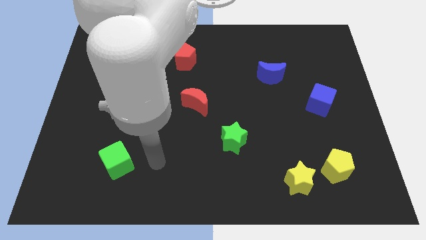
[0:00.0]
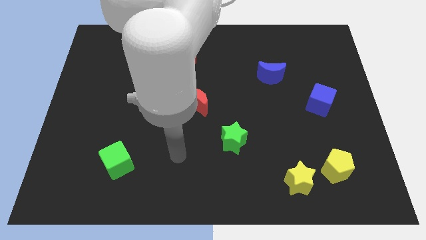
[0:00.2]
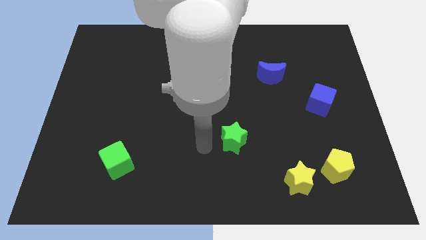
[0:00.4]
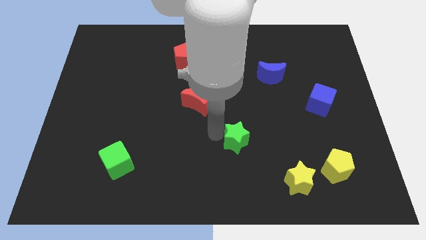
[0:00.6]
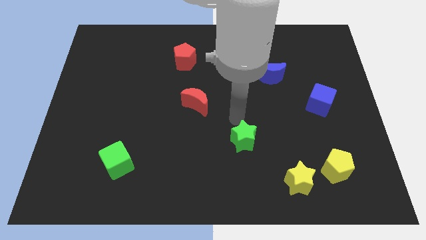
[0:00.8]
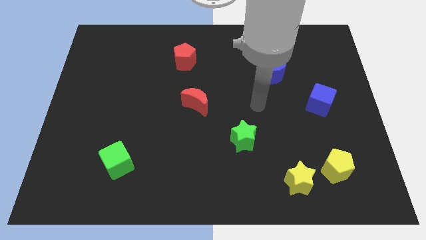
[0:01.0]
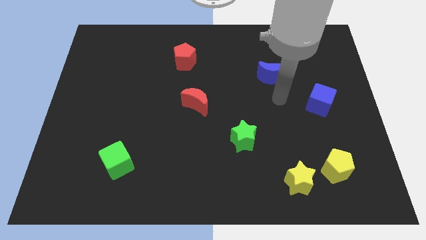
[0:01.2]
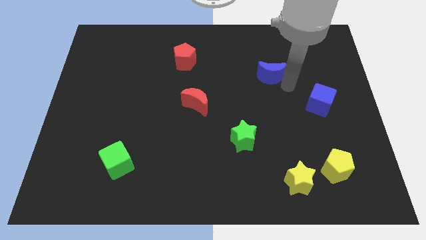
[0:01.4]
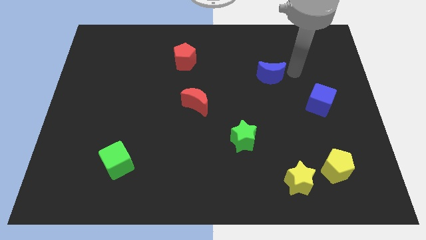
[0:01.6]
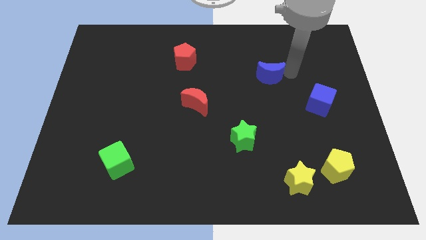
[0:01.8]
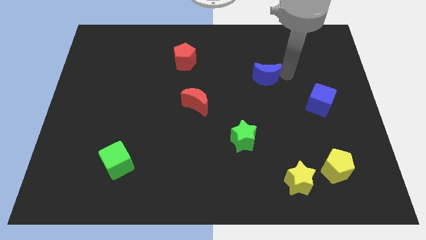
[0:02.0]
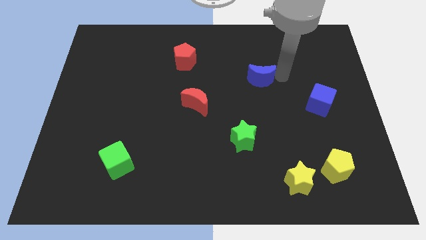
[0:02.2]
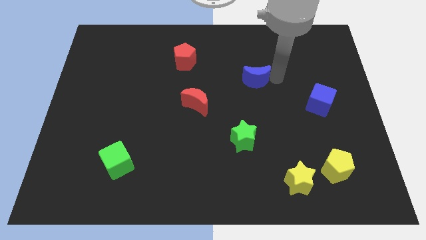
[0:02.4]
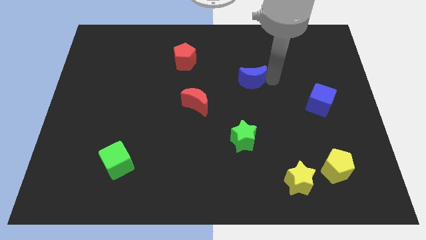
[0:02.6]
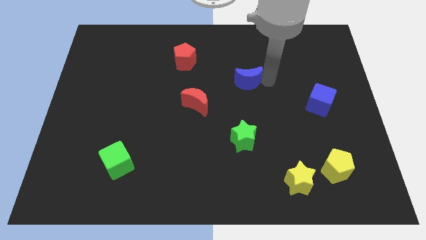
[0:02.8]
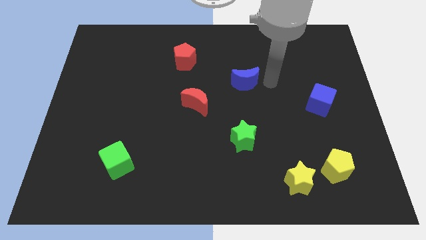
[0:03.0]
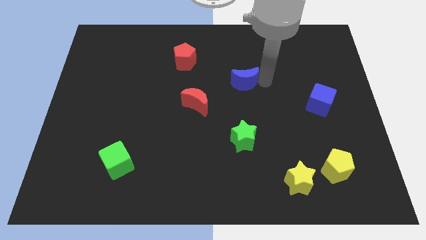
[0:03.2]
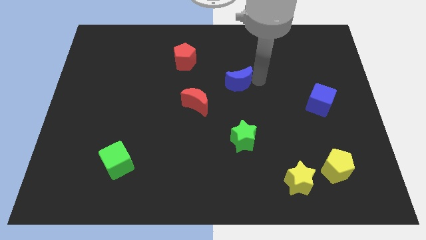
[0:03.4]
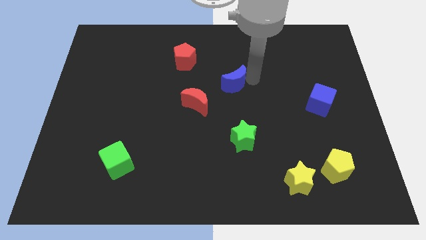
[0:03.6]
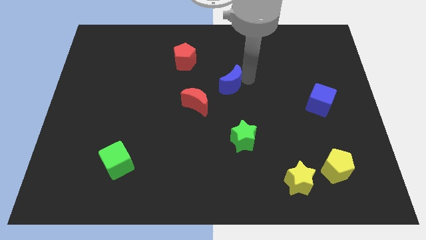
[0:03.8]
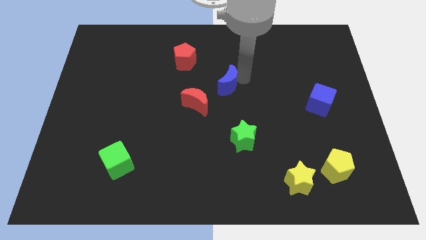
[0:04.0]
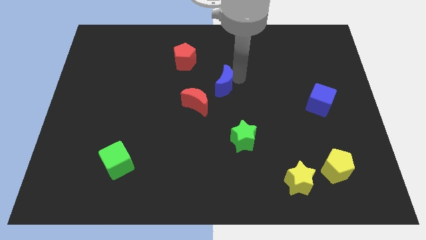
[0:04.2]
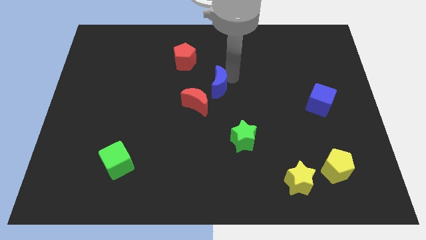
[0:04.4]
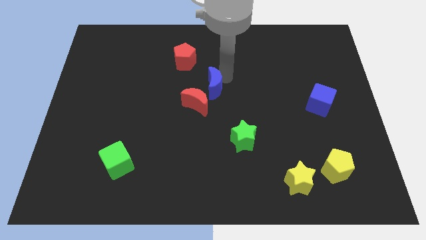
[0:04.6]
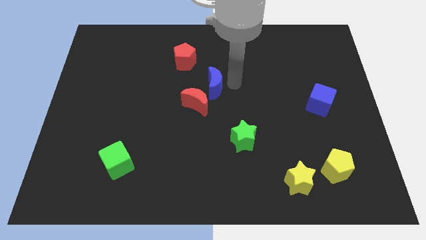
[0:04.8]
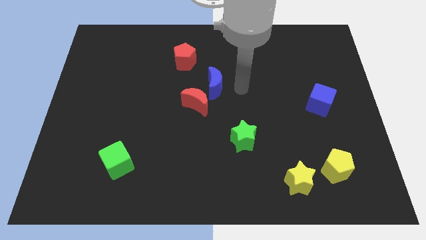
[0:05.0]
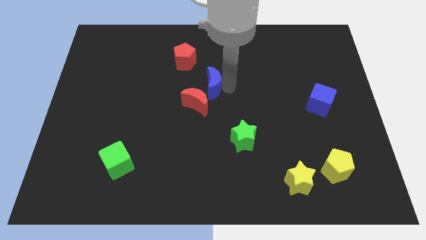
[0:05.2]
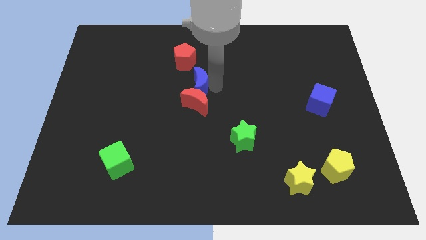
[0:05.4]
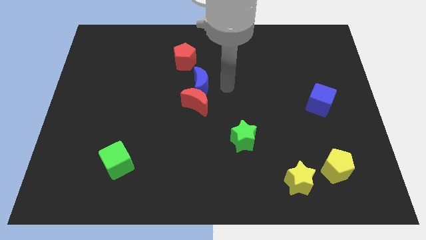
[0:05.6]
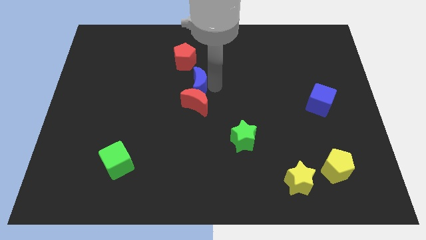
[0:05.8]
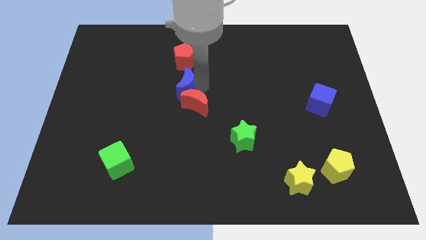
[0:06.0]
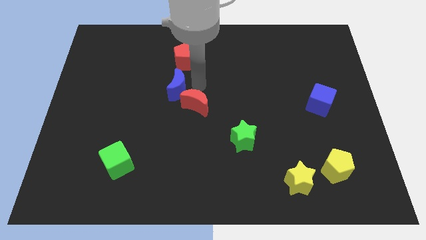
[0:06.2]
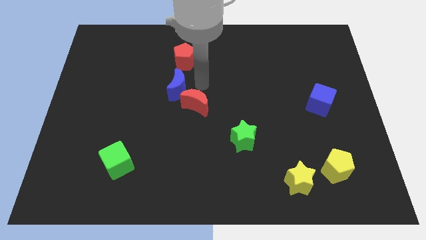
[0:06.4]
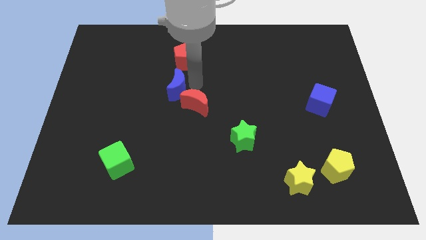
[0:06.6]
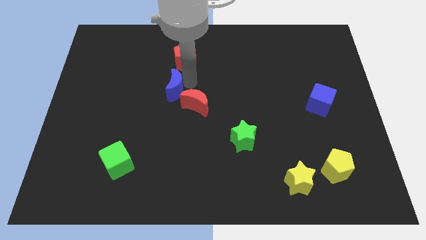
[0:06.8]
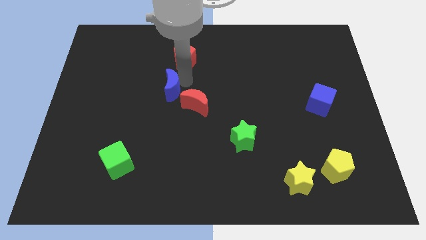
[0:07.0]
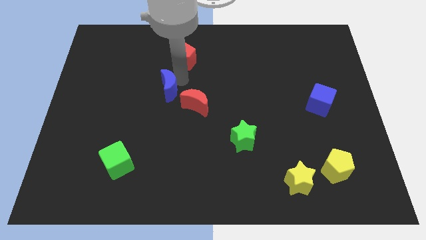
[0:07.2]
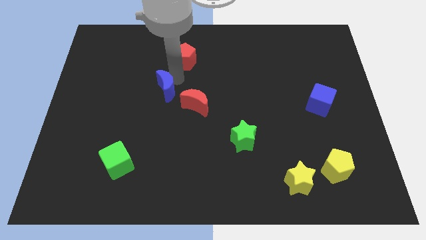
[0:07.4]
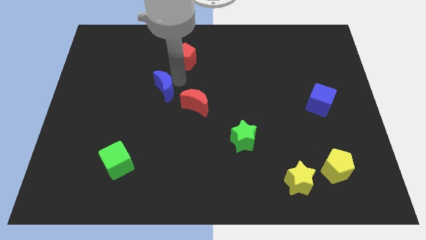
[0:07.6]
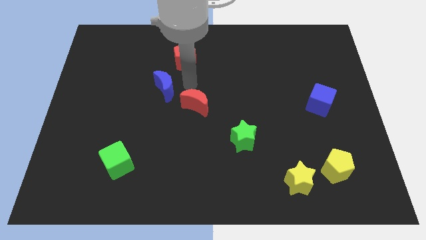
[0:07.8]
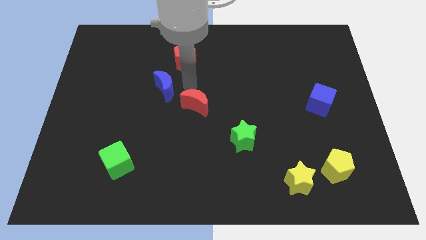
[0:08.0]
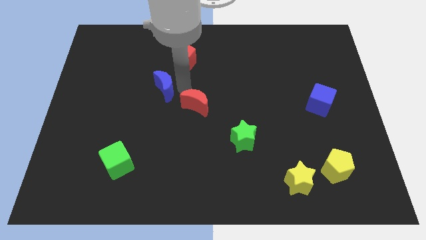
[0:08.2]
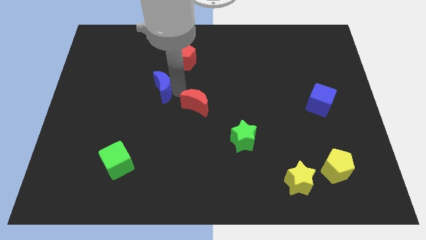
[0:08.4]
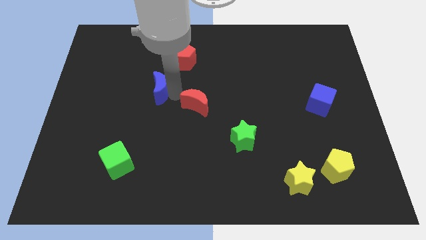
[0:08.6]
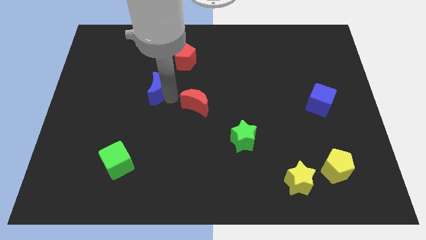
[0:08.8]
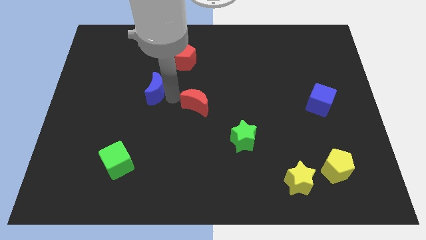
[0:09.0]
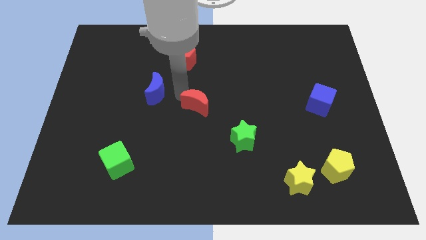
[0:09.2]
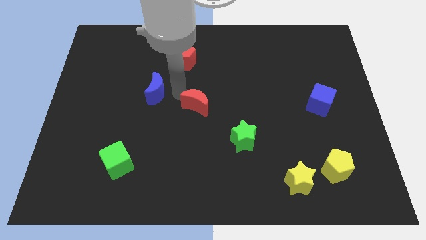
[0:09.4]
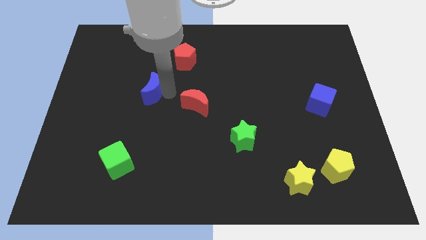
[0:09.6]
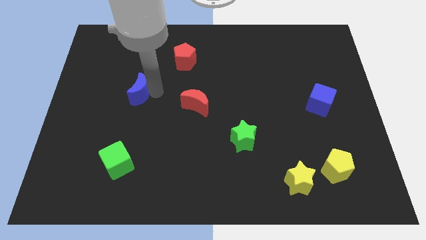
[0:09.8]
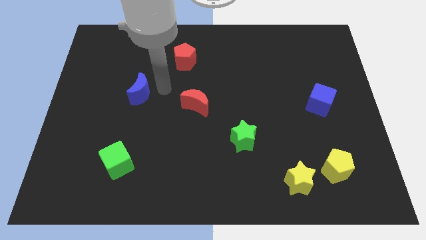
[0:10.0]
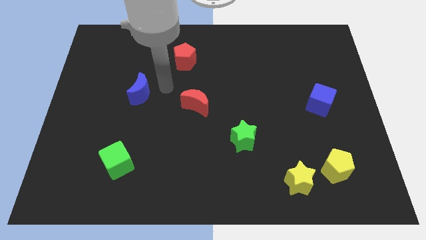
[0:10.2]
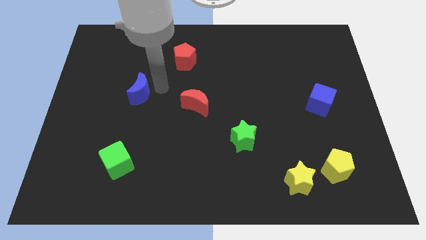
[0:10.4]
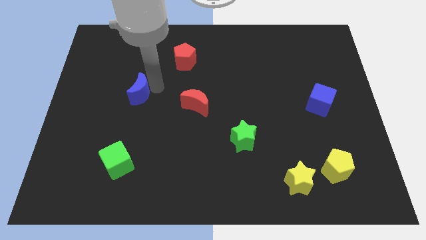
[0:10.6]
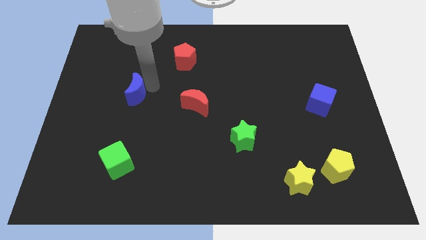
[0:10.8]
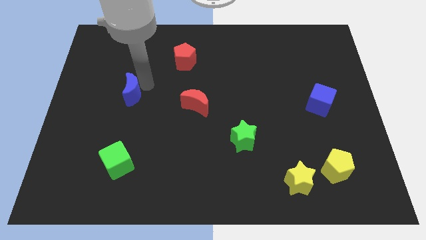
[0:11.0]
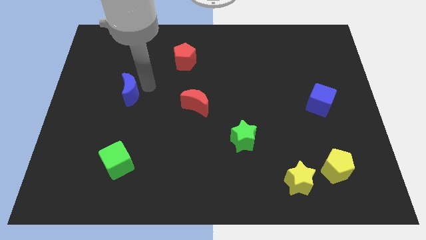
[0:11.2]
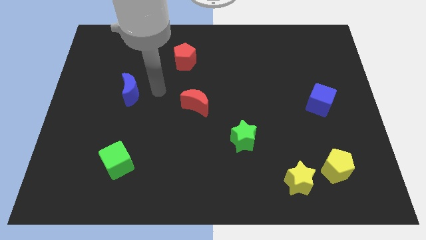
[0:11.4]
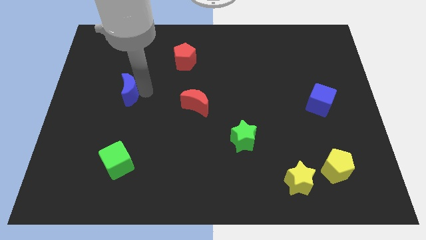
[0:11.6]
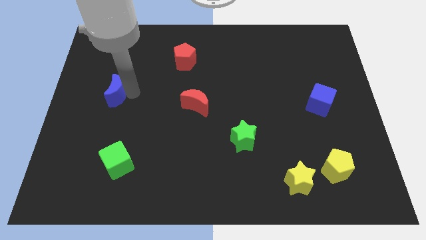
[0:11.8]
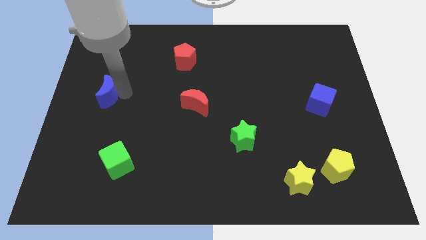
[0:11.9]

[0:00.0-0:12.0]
put the blue moon to the left side of the board

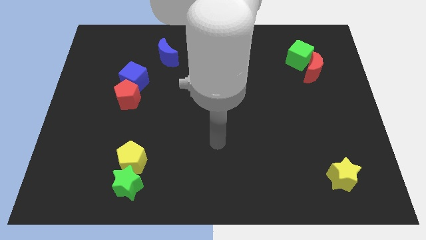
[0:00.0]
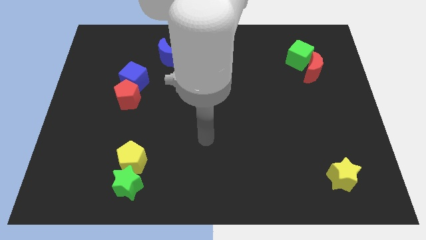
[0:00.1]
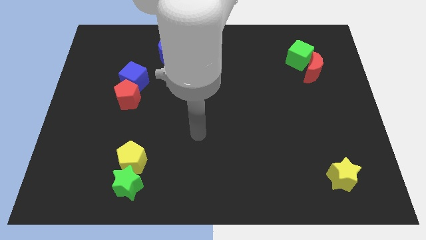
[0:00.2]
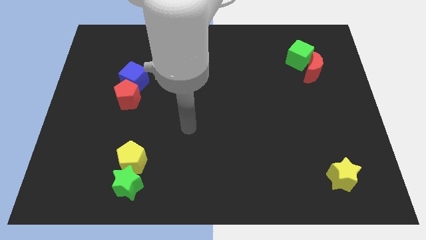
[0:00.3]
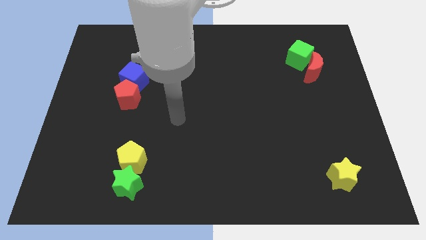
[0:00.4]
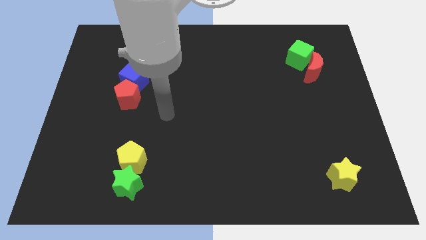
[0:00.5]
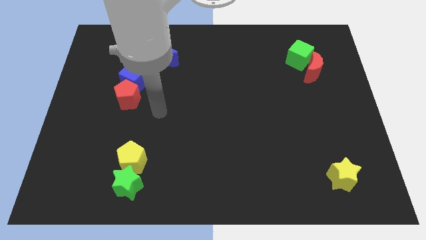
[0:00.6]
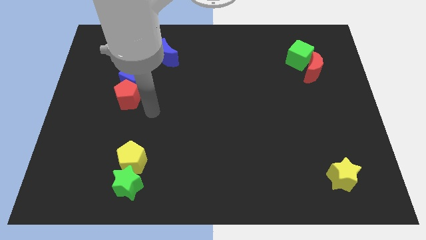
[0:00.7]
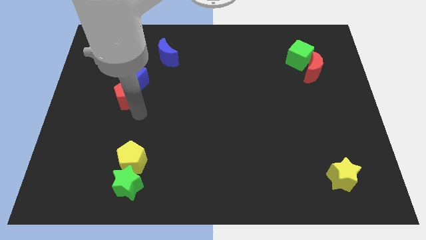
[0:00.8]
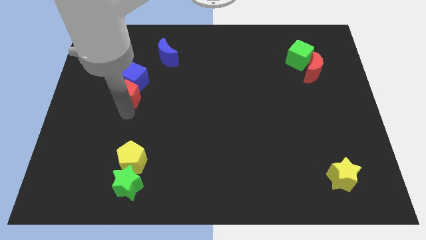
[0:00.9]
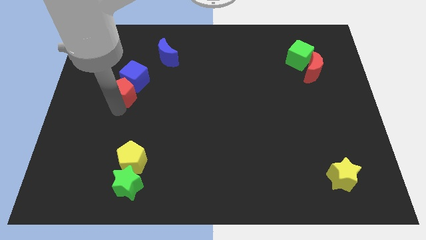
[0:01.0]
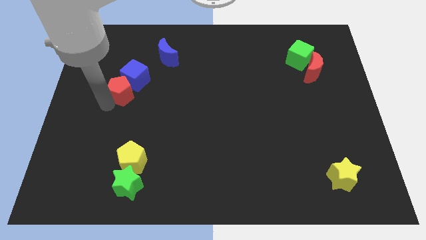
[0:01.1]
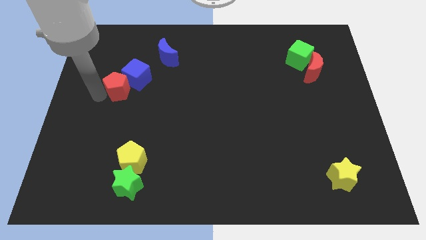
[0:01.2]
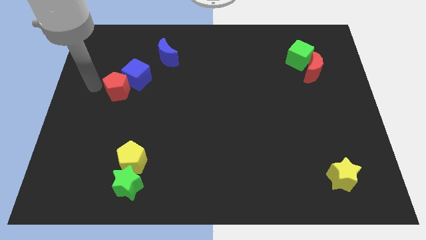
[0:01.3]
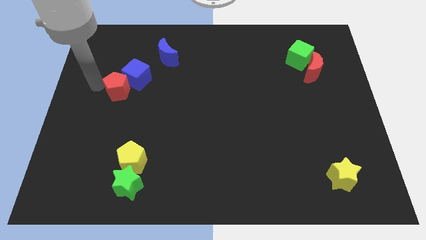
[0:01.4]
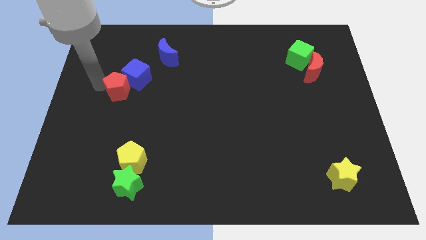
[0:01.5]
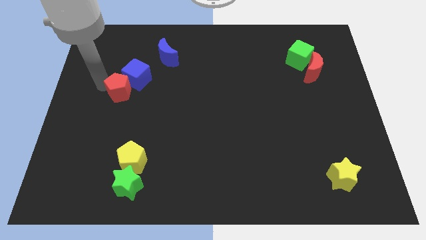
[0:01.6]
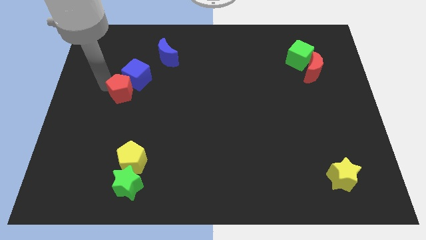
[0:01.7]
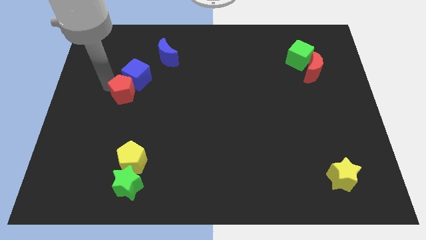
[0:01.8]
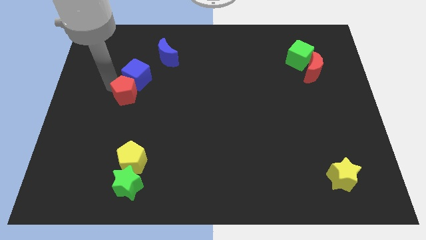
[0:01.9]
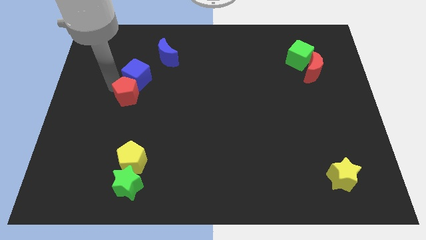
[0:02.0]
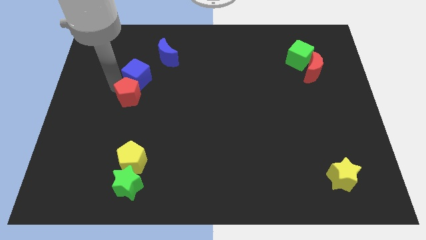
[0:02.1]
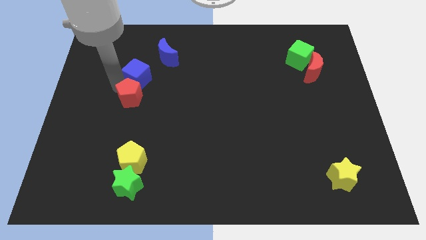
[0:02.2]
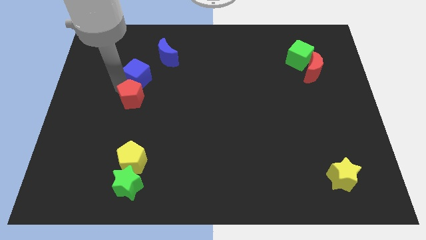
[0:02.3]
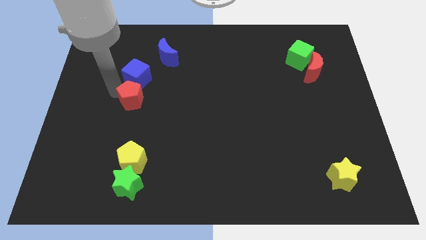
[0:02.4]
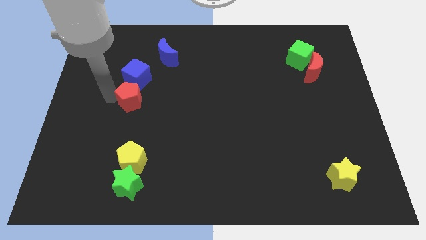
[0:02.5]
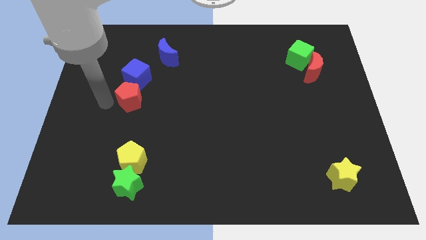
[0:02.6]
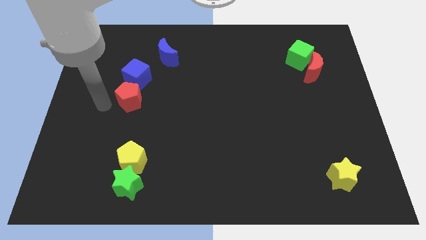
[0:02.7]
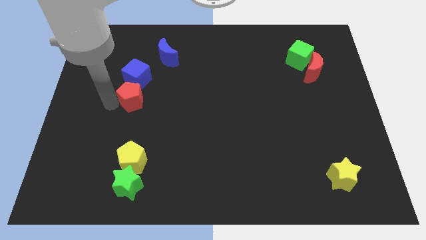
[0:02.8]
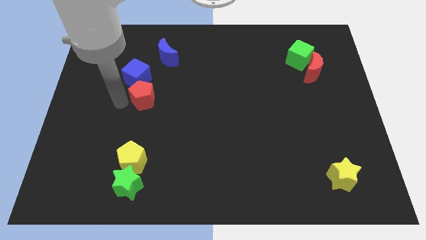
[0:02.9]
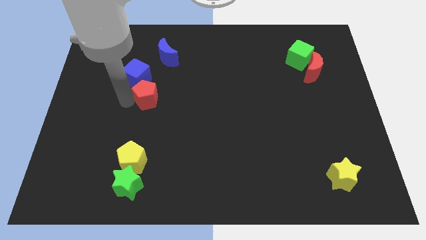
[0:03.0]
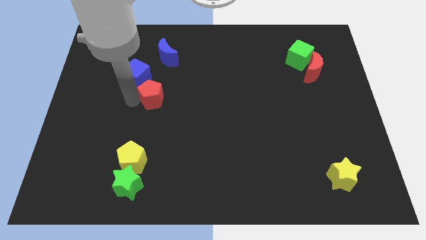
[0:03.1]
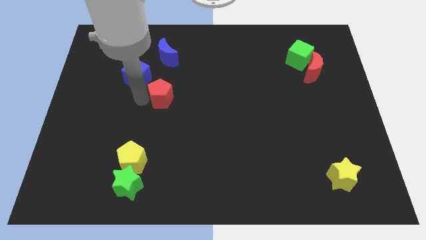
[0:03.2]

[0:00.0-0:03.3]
slide the red pentagon to the center
